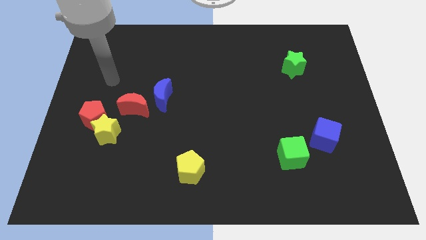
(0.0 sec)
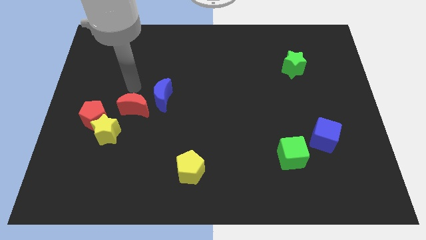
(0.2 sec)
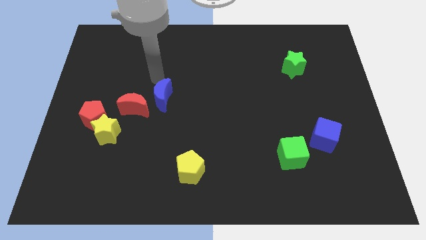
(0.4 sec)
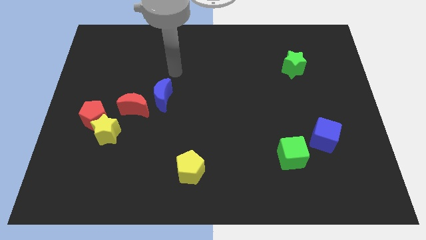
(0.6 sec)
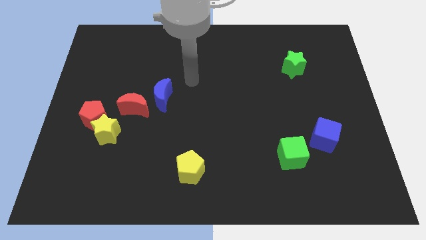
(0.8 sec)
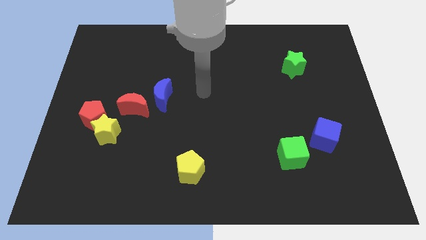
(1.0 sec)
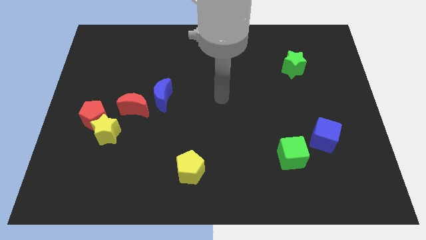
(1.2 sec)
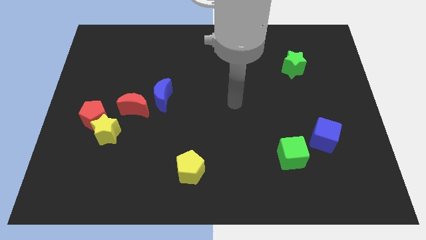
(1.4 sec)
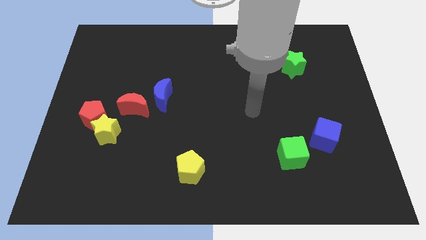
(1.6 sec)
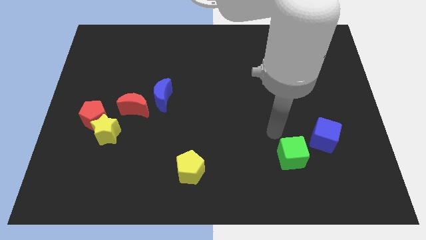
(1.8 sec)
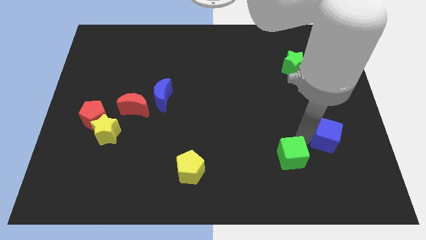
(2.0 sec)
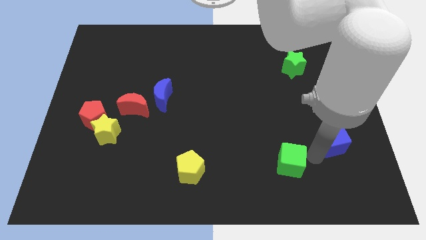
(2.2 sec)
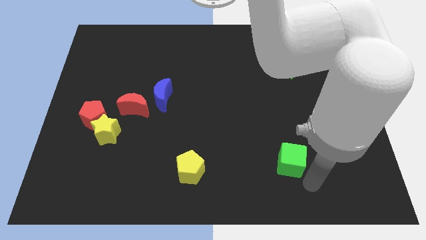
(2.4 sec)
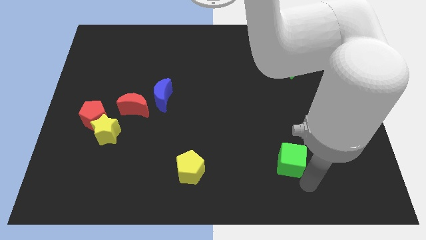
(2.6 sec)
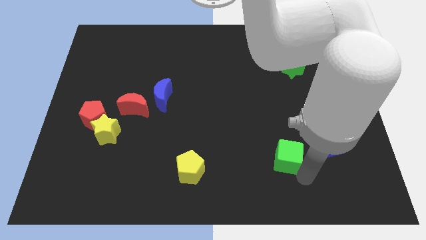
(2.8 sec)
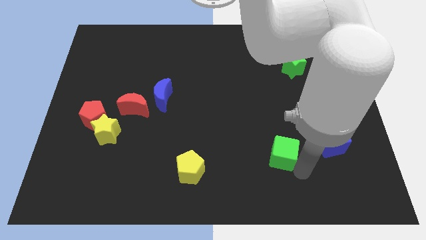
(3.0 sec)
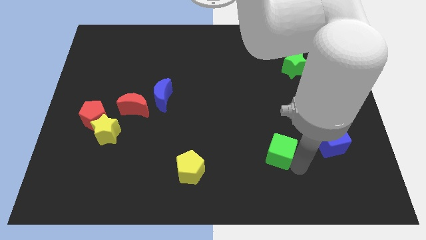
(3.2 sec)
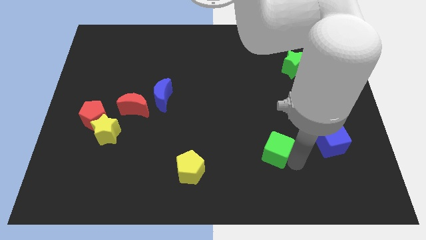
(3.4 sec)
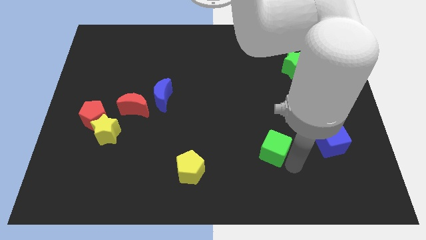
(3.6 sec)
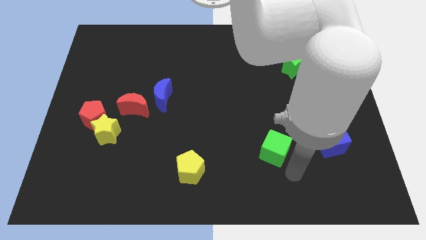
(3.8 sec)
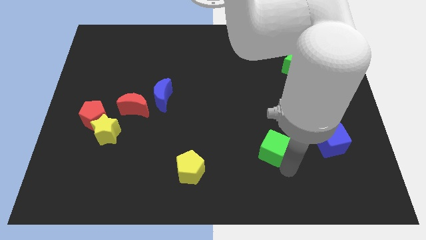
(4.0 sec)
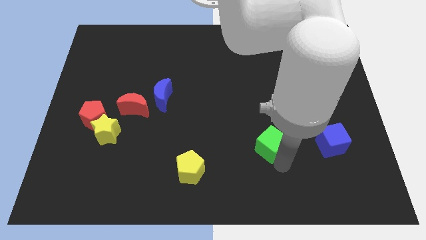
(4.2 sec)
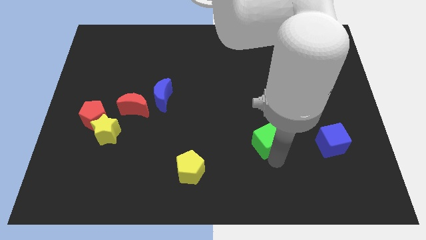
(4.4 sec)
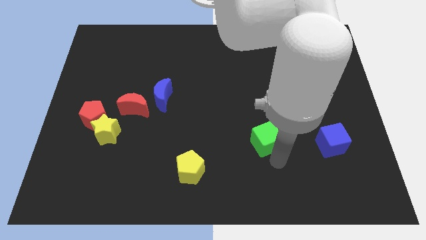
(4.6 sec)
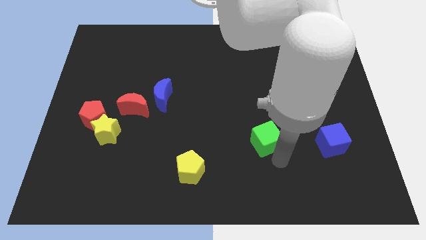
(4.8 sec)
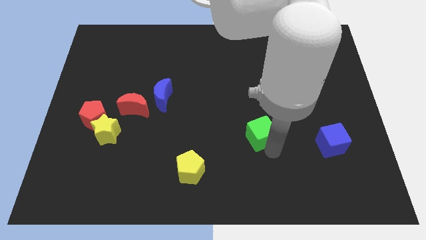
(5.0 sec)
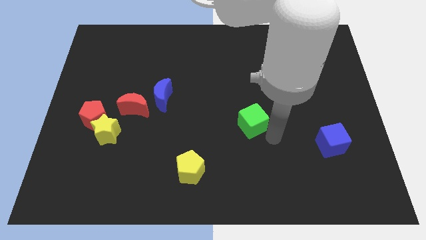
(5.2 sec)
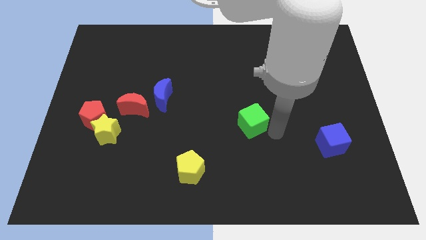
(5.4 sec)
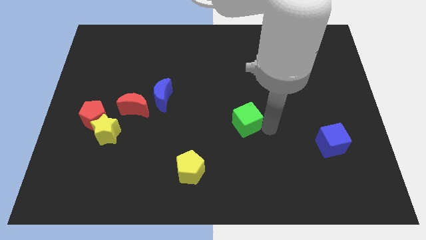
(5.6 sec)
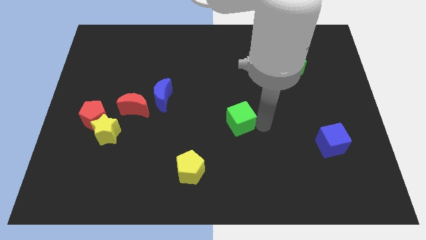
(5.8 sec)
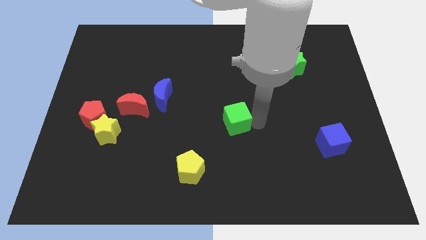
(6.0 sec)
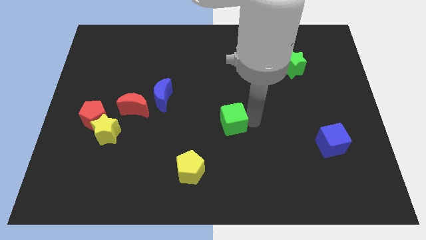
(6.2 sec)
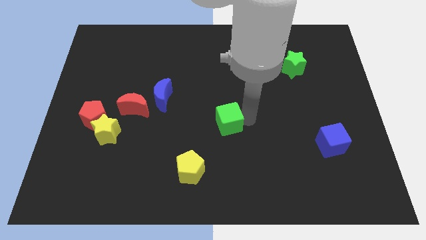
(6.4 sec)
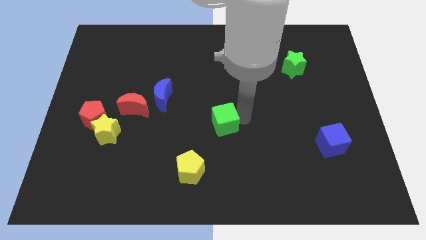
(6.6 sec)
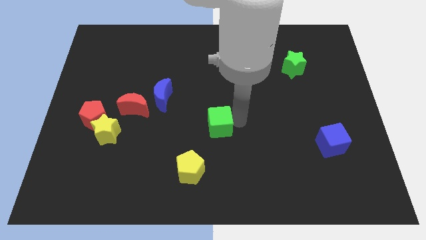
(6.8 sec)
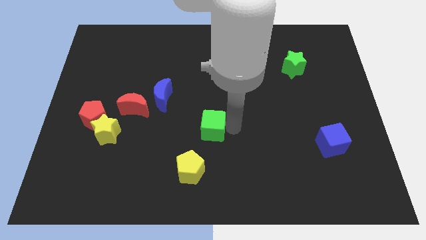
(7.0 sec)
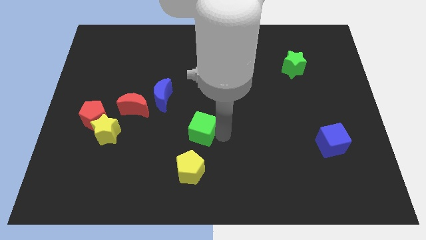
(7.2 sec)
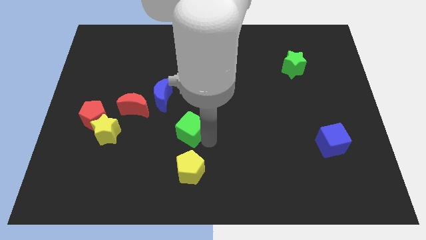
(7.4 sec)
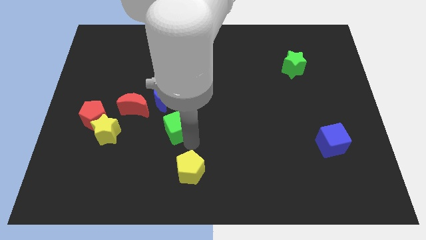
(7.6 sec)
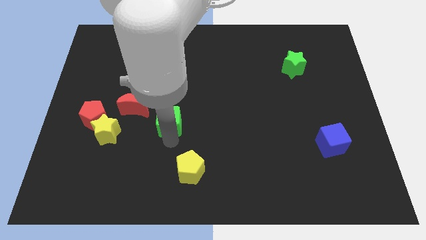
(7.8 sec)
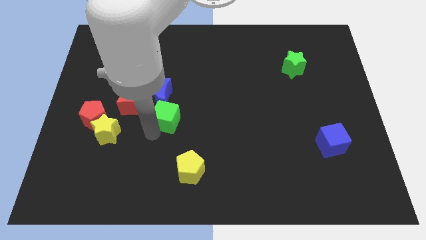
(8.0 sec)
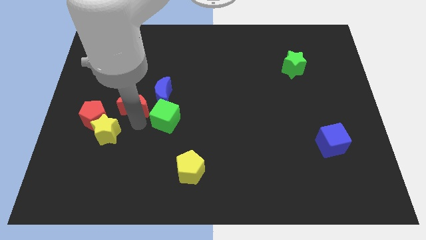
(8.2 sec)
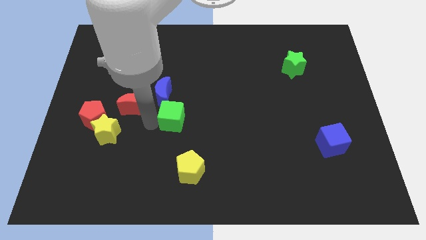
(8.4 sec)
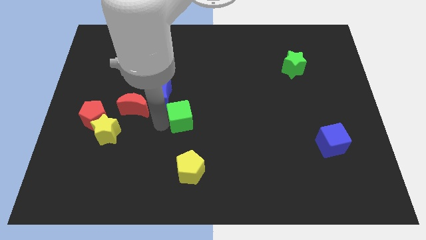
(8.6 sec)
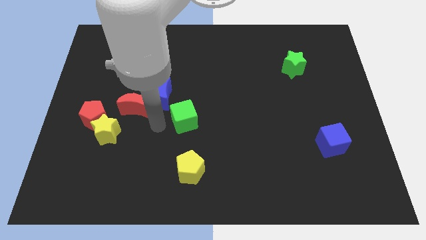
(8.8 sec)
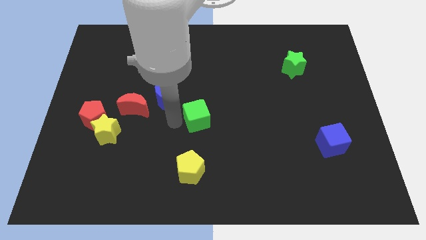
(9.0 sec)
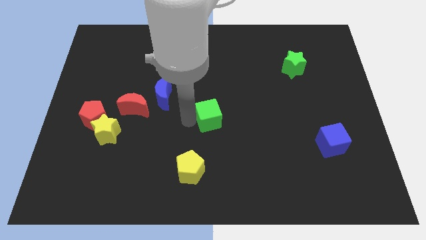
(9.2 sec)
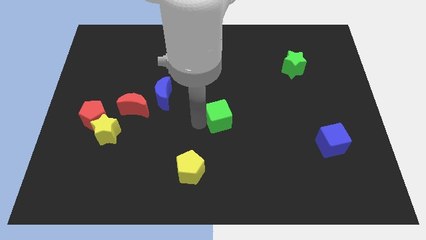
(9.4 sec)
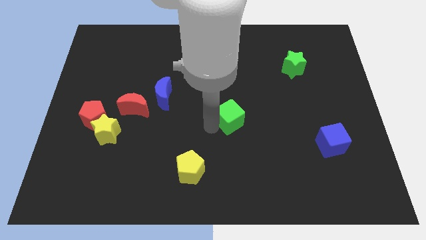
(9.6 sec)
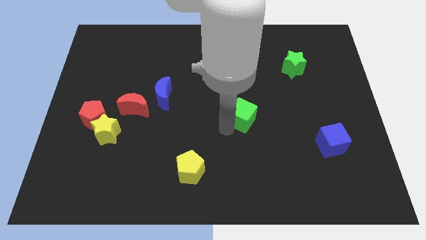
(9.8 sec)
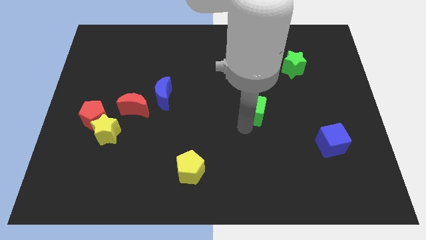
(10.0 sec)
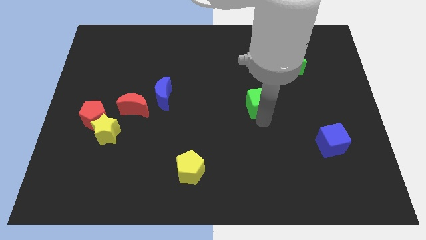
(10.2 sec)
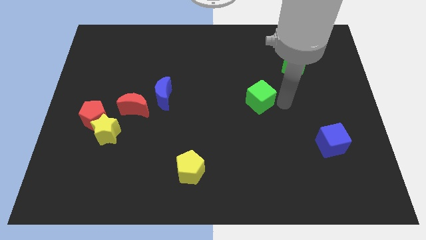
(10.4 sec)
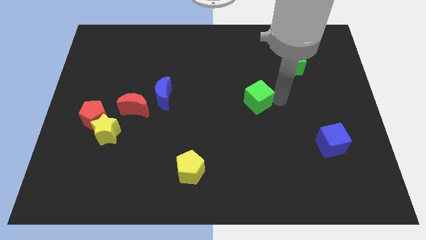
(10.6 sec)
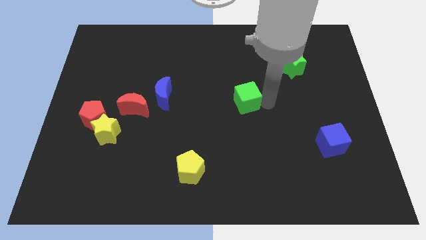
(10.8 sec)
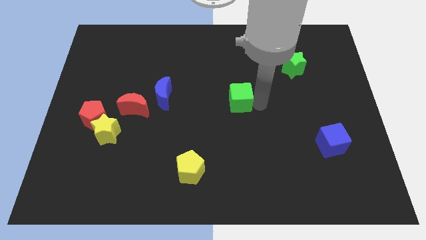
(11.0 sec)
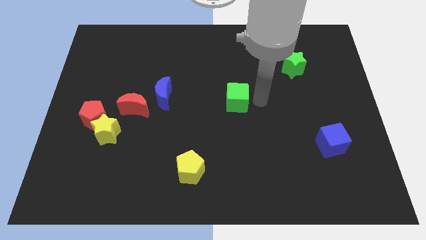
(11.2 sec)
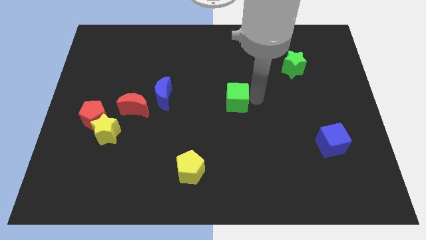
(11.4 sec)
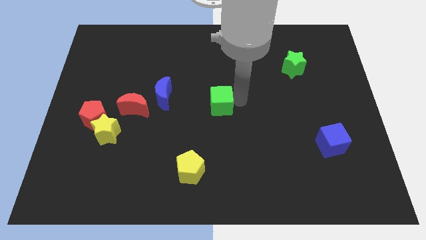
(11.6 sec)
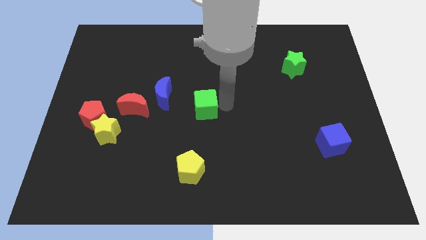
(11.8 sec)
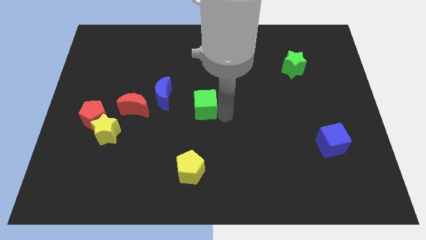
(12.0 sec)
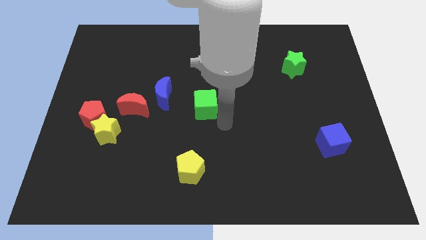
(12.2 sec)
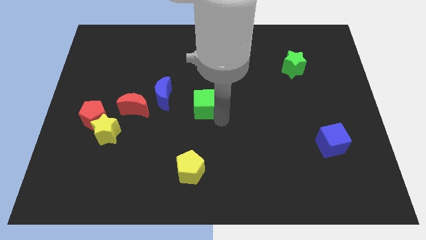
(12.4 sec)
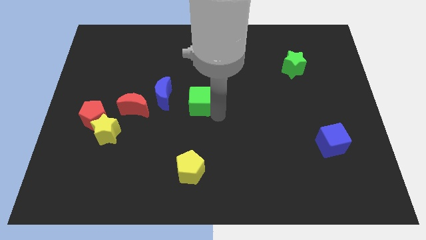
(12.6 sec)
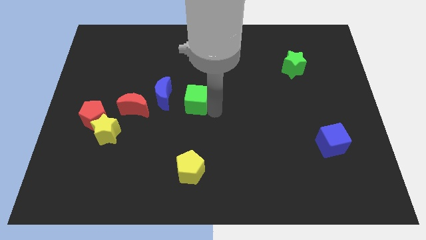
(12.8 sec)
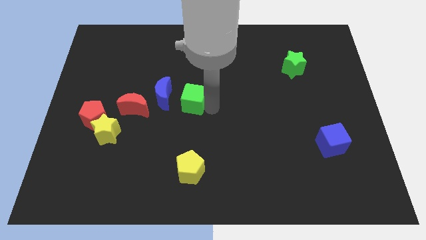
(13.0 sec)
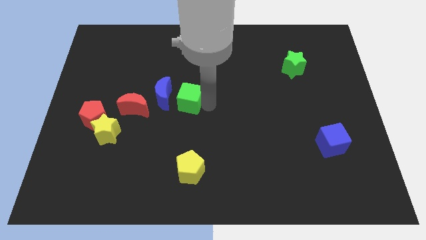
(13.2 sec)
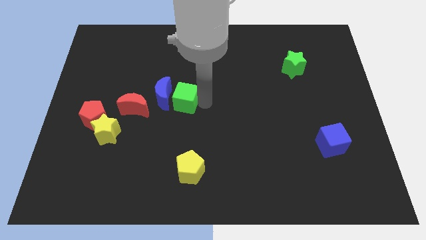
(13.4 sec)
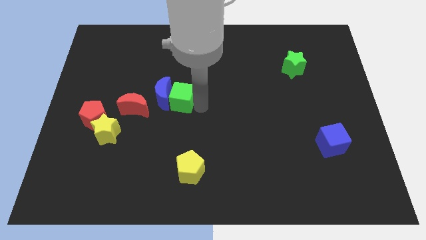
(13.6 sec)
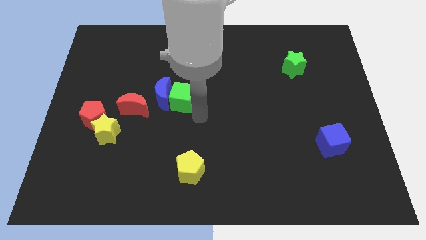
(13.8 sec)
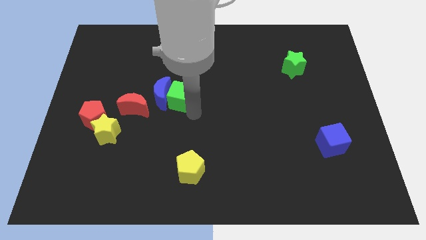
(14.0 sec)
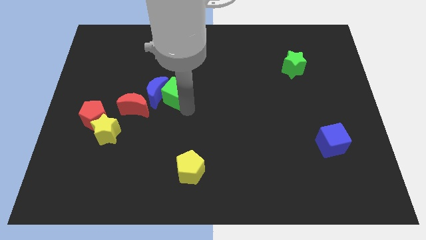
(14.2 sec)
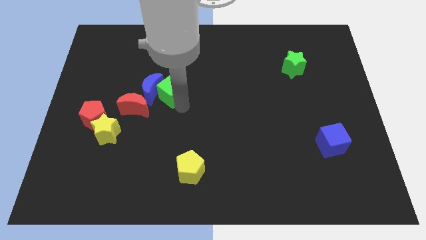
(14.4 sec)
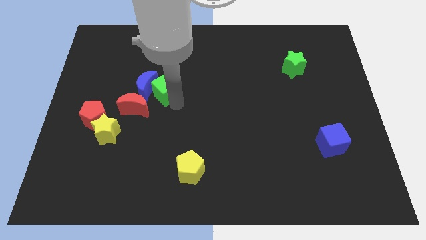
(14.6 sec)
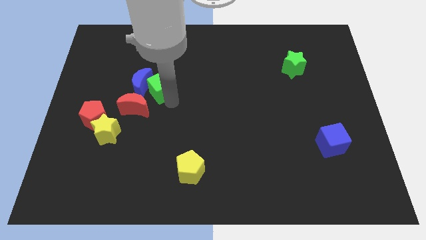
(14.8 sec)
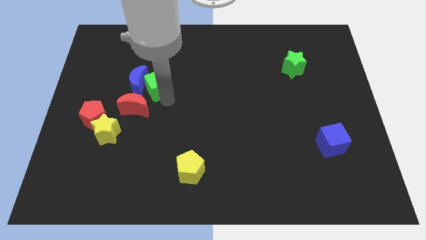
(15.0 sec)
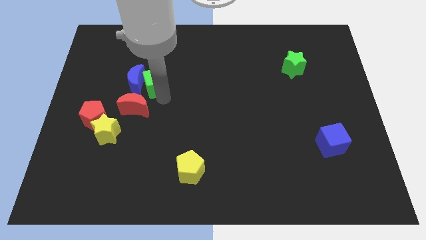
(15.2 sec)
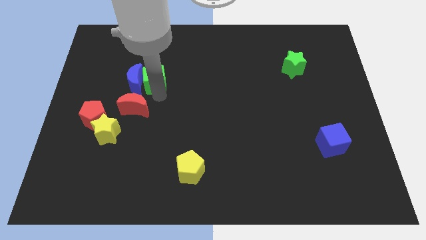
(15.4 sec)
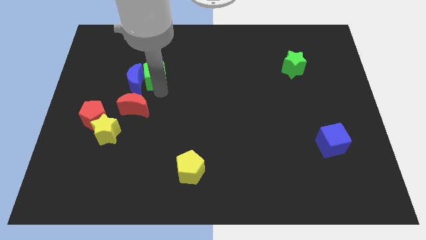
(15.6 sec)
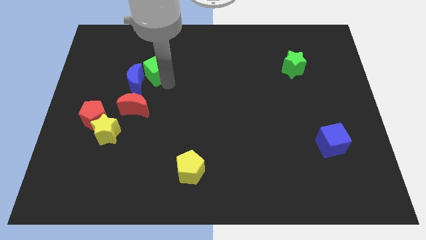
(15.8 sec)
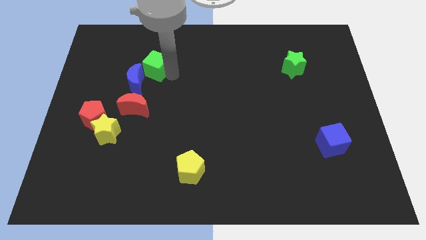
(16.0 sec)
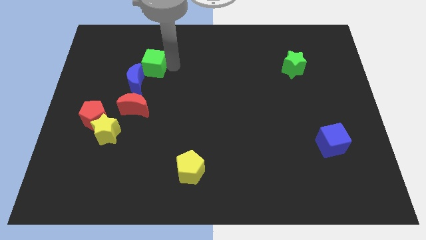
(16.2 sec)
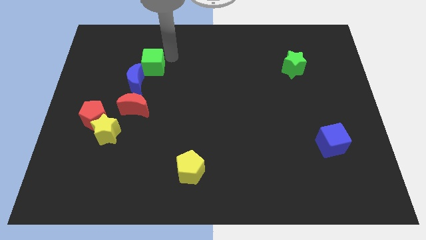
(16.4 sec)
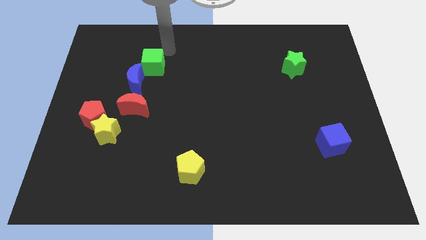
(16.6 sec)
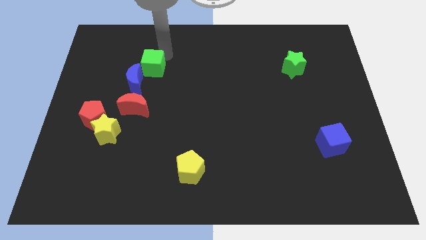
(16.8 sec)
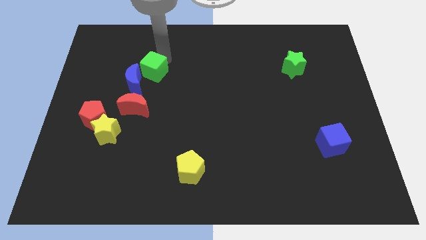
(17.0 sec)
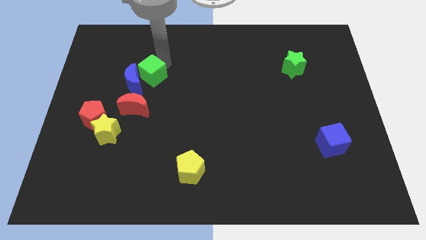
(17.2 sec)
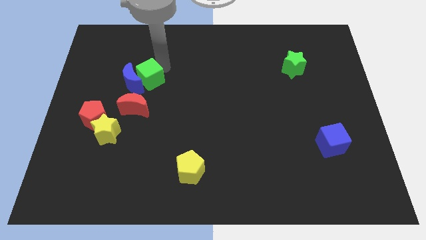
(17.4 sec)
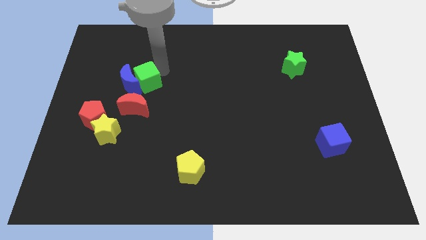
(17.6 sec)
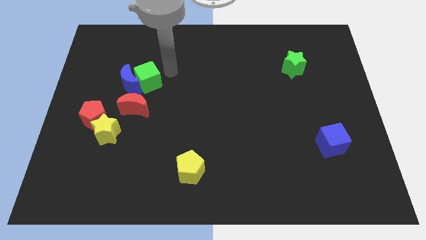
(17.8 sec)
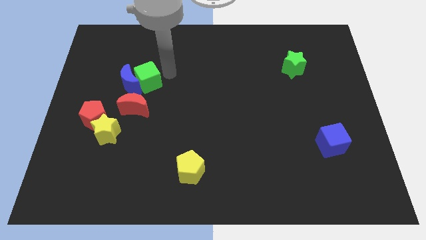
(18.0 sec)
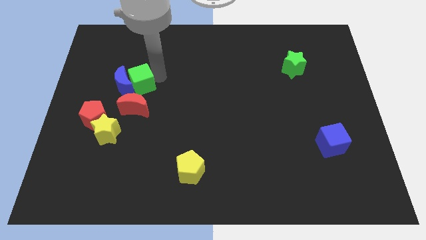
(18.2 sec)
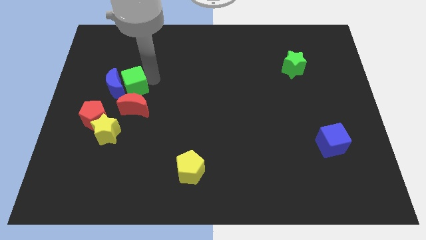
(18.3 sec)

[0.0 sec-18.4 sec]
slide the green cube to the top left side of the red moon
